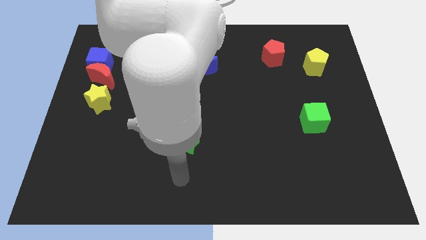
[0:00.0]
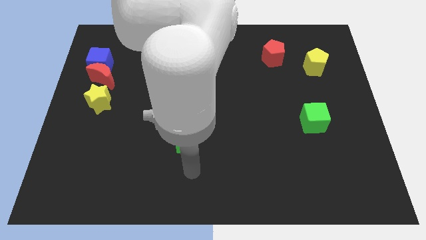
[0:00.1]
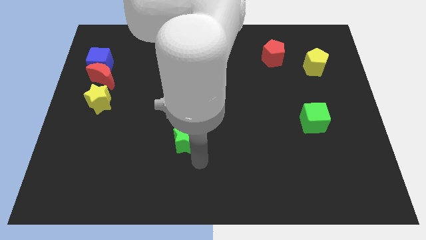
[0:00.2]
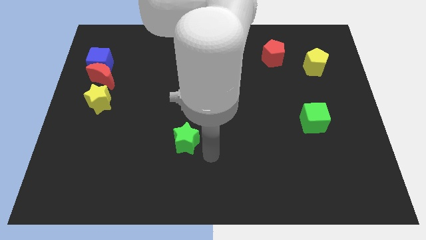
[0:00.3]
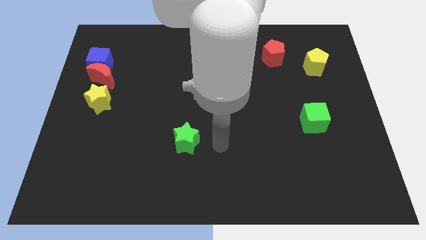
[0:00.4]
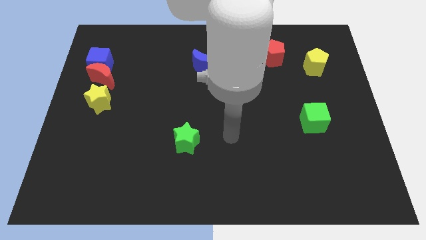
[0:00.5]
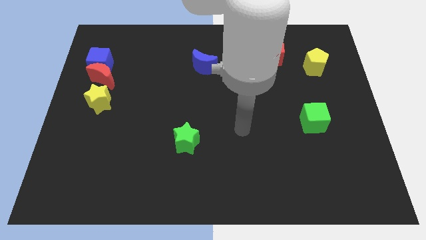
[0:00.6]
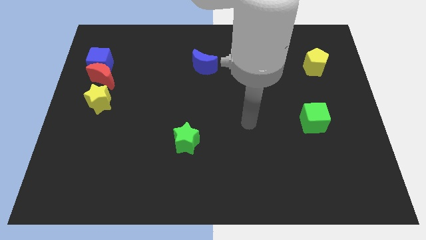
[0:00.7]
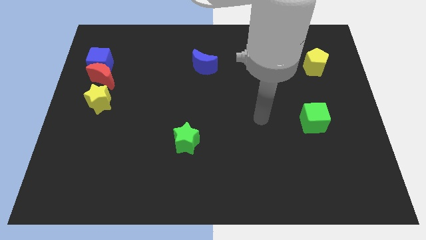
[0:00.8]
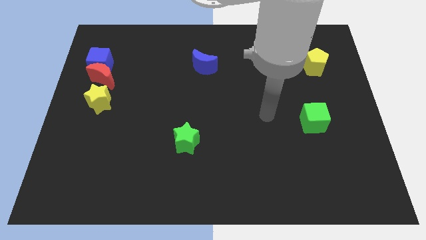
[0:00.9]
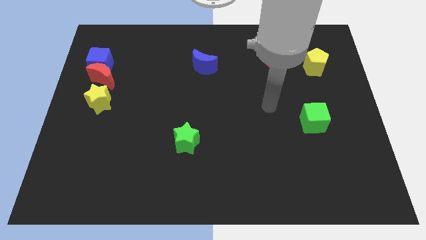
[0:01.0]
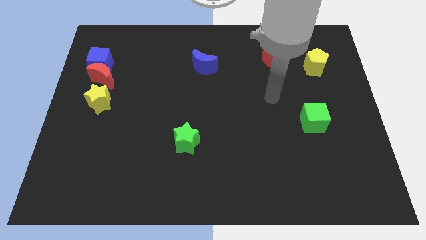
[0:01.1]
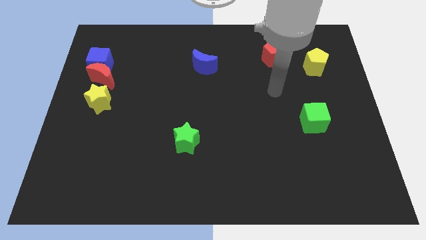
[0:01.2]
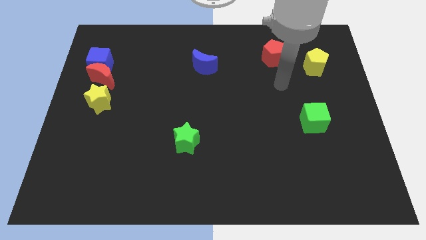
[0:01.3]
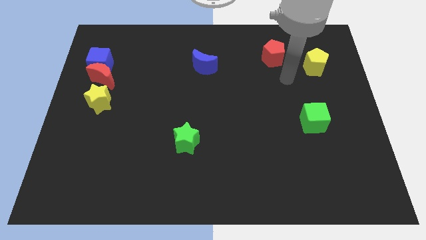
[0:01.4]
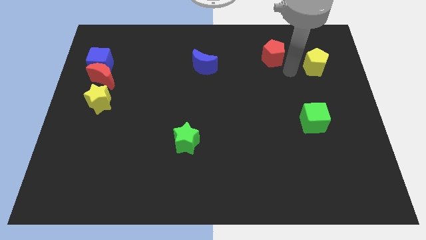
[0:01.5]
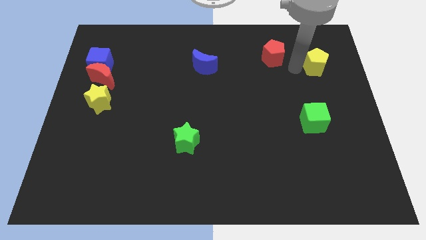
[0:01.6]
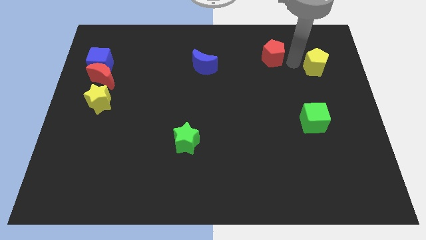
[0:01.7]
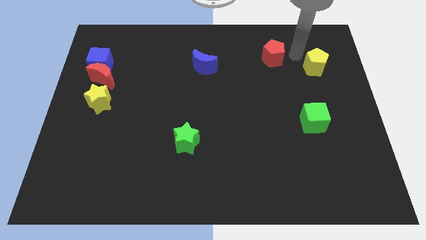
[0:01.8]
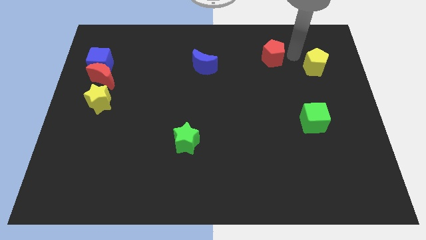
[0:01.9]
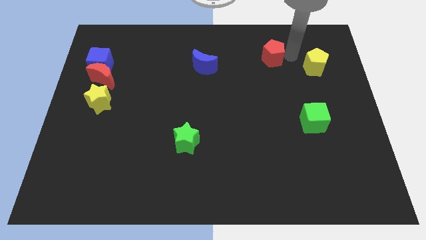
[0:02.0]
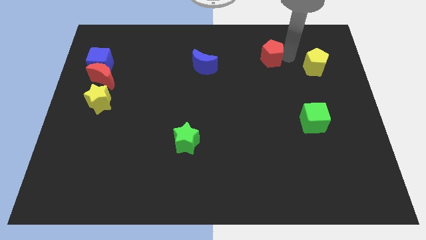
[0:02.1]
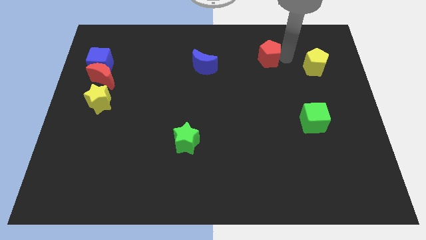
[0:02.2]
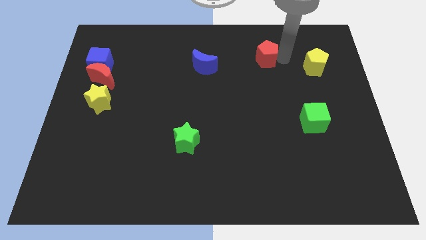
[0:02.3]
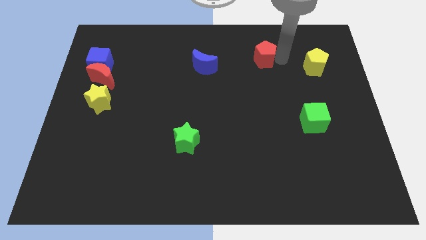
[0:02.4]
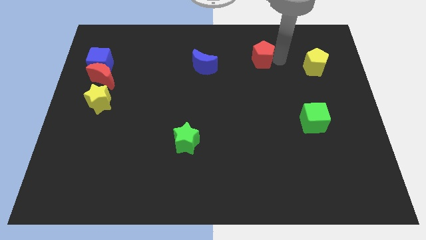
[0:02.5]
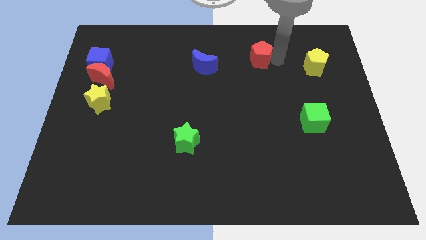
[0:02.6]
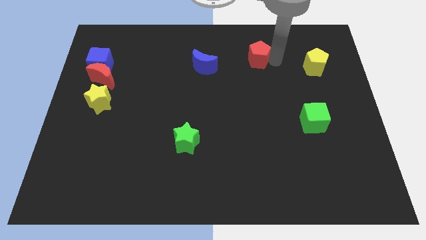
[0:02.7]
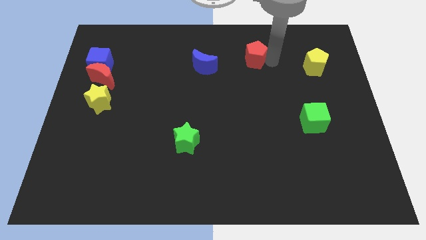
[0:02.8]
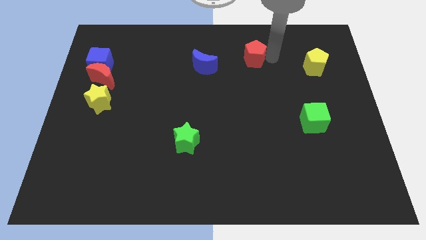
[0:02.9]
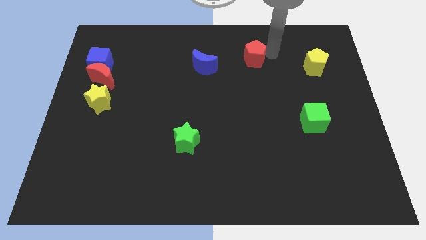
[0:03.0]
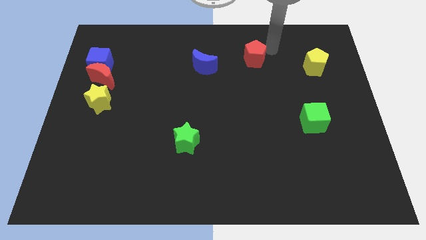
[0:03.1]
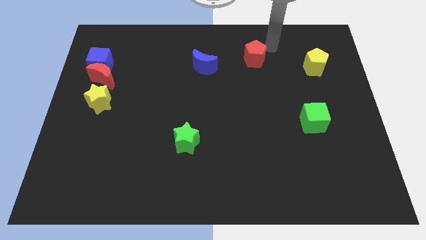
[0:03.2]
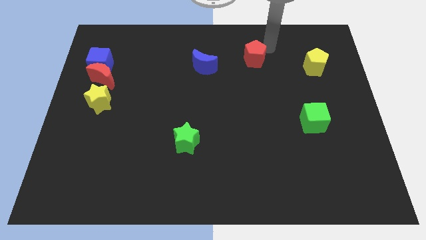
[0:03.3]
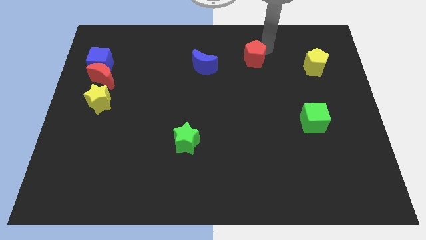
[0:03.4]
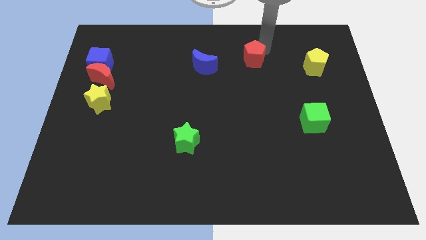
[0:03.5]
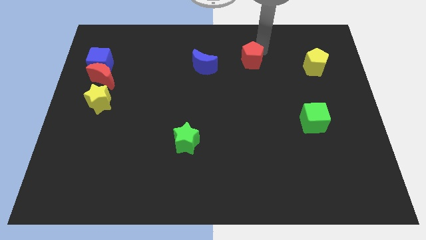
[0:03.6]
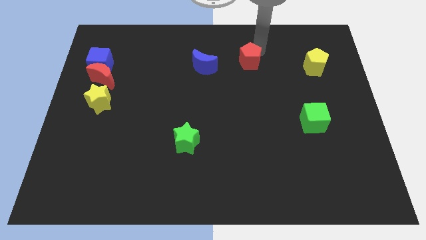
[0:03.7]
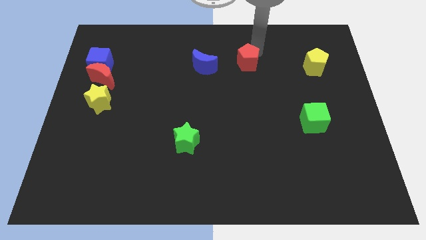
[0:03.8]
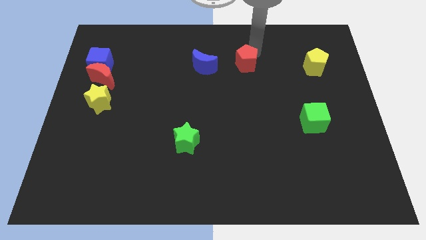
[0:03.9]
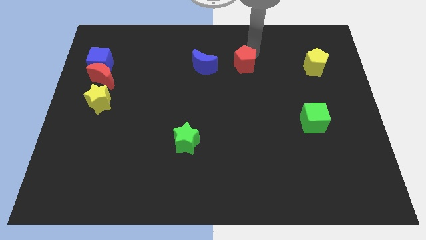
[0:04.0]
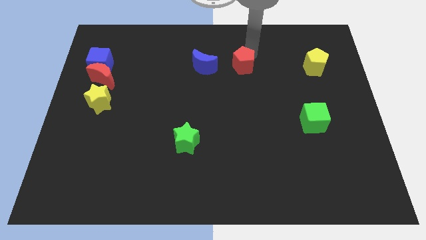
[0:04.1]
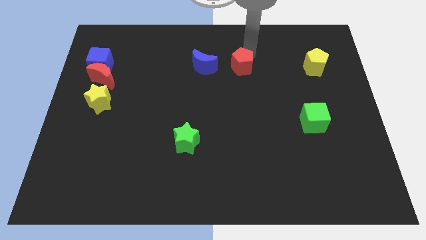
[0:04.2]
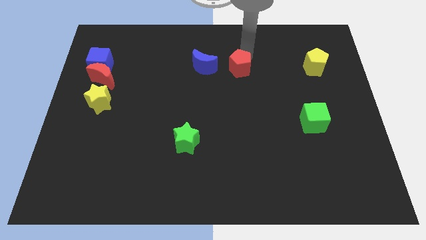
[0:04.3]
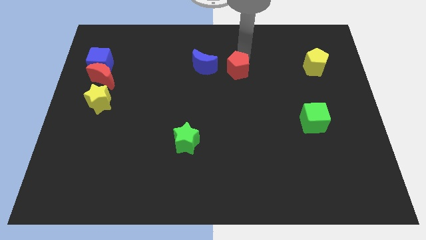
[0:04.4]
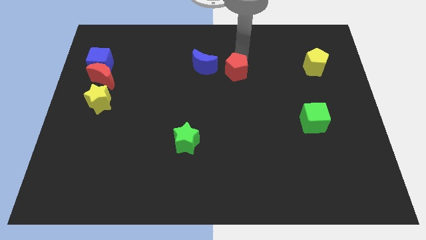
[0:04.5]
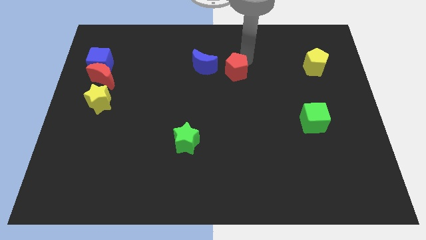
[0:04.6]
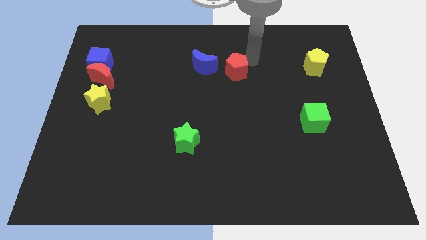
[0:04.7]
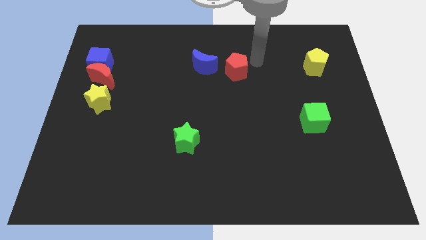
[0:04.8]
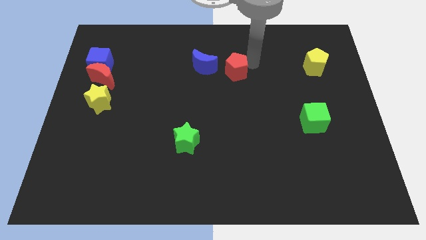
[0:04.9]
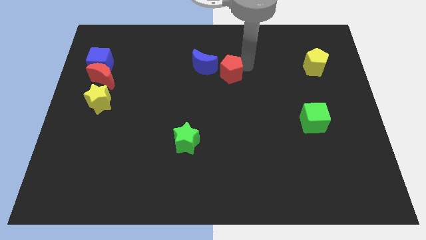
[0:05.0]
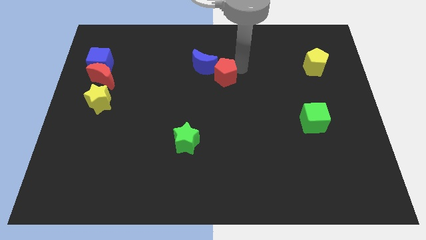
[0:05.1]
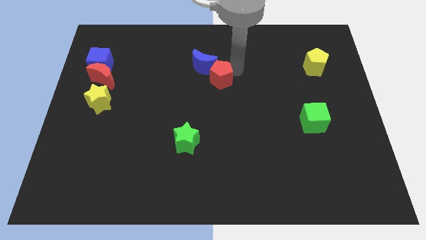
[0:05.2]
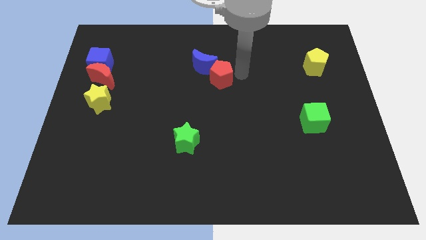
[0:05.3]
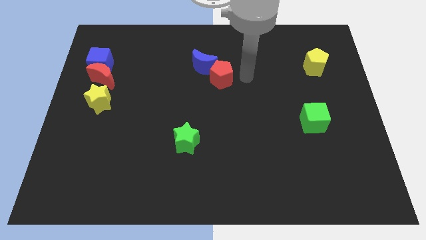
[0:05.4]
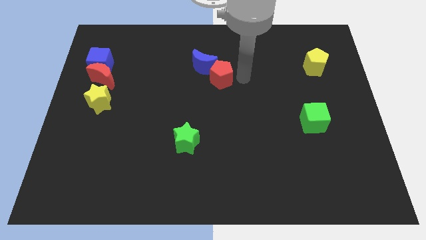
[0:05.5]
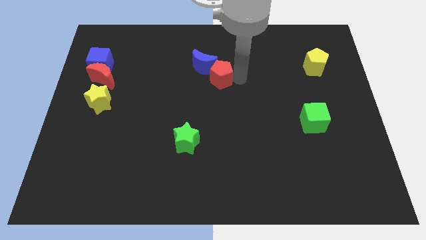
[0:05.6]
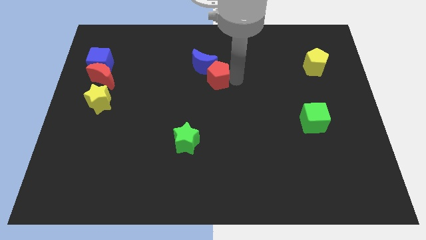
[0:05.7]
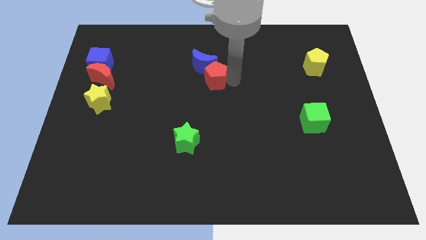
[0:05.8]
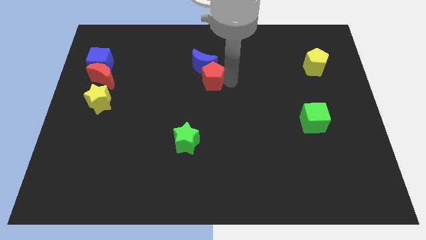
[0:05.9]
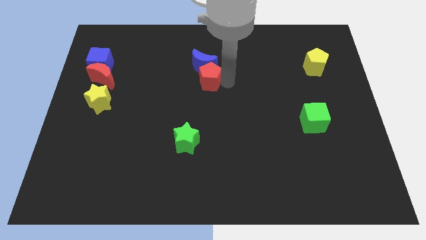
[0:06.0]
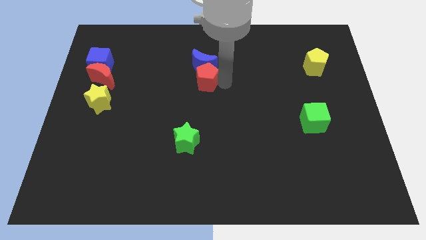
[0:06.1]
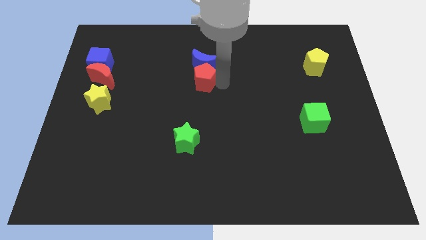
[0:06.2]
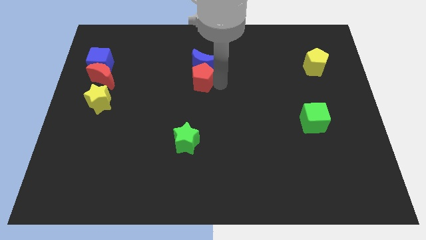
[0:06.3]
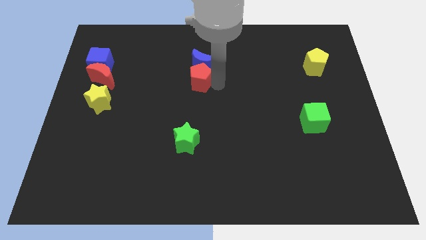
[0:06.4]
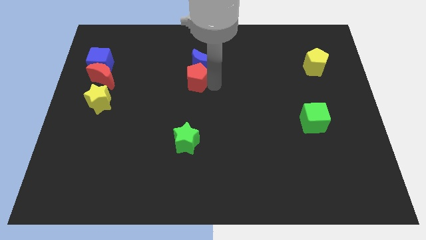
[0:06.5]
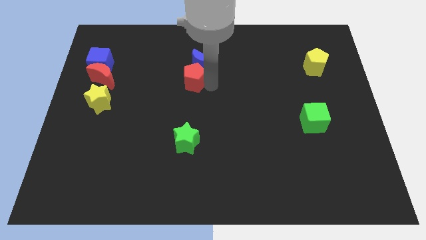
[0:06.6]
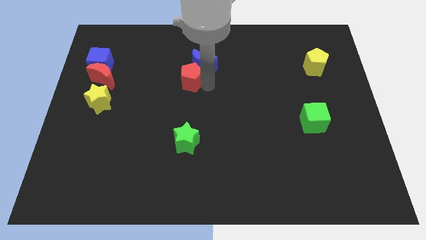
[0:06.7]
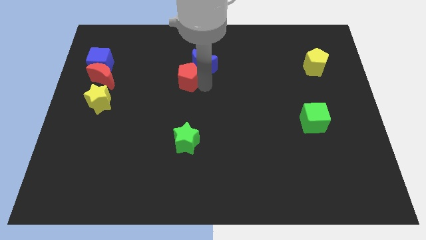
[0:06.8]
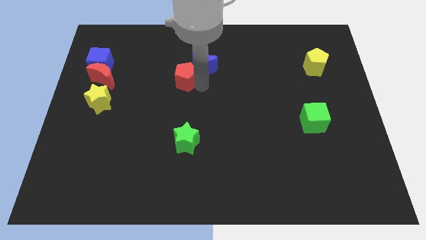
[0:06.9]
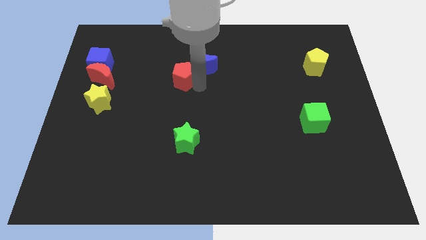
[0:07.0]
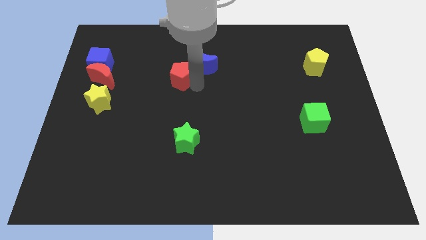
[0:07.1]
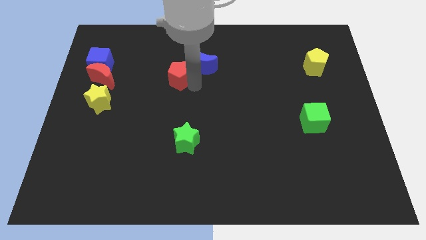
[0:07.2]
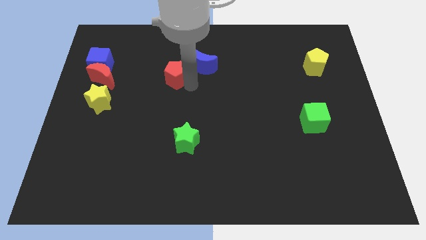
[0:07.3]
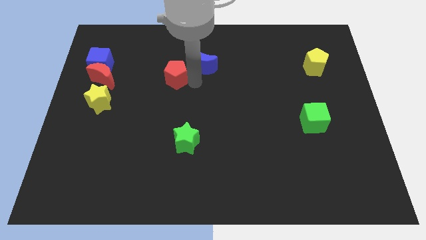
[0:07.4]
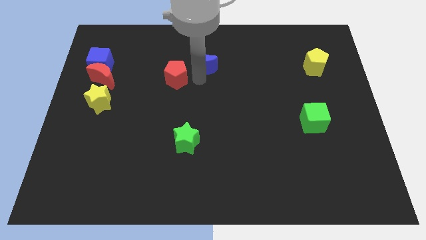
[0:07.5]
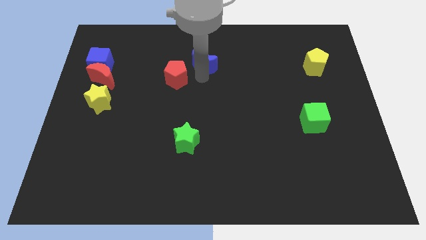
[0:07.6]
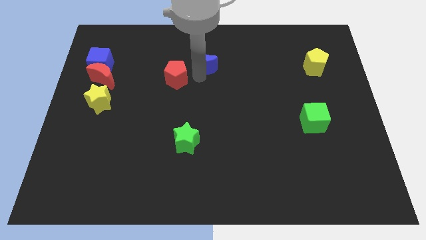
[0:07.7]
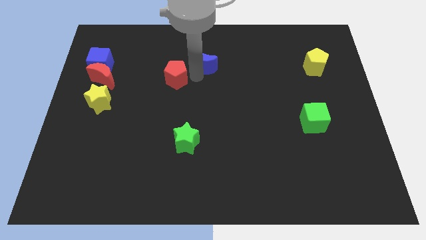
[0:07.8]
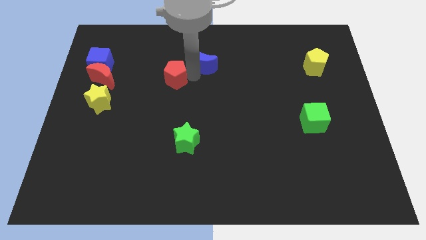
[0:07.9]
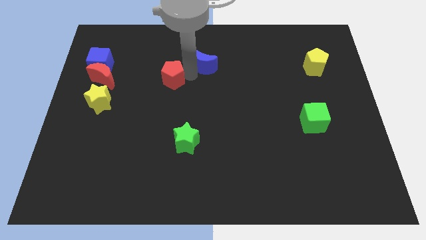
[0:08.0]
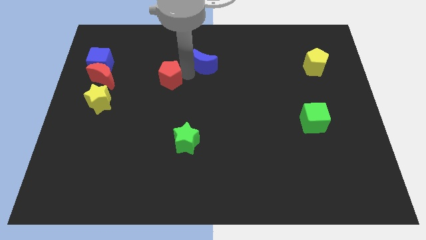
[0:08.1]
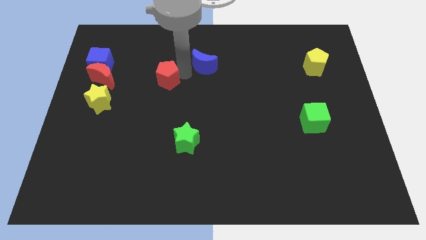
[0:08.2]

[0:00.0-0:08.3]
slide the red pentagon to the right of the red moon
